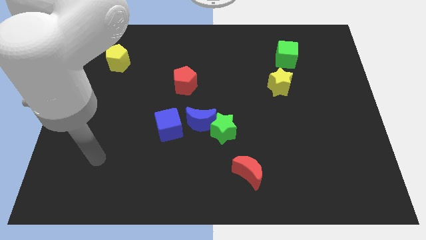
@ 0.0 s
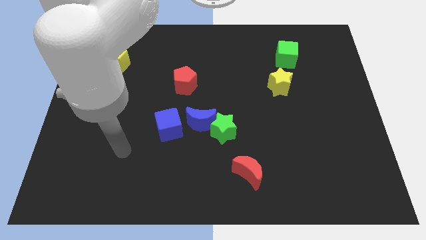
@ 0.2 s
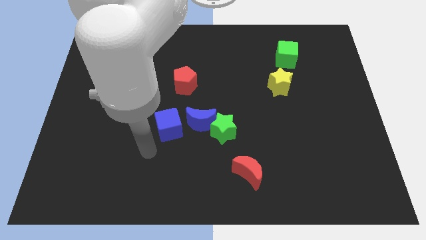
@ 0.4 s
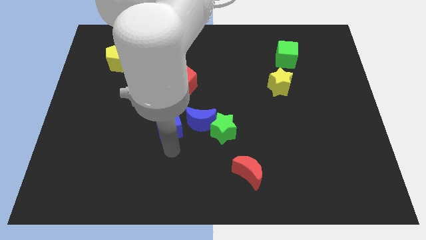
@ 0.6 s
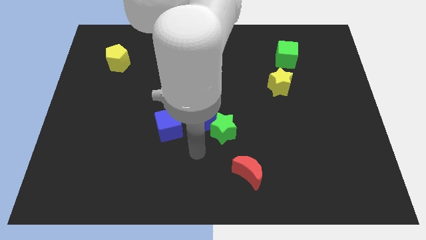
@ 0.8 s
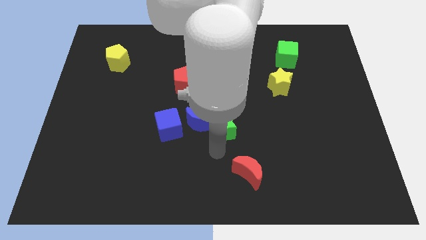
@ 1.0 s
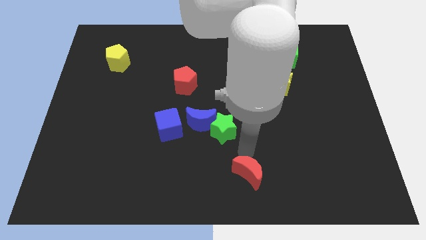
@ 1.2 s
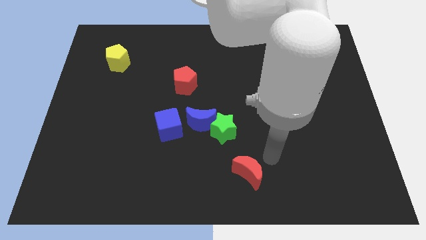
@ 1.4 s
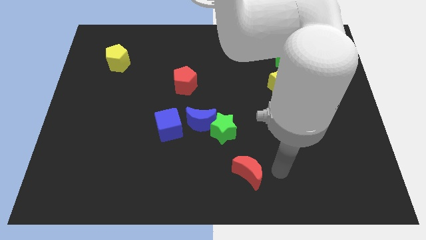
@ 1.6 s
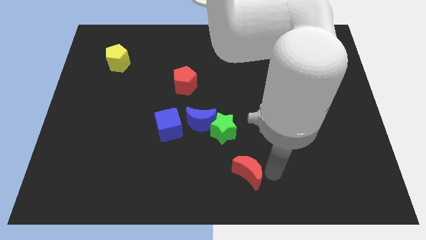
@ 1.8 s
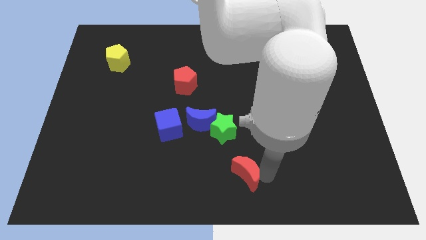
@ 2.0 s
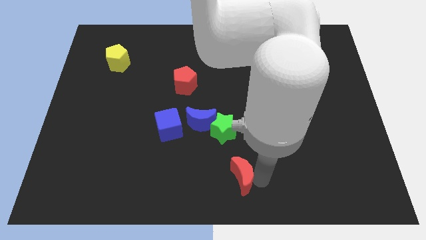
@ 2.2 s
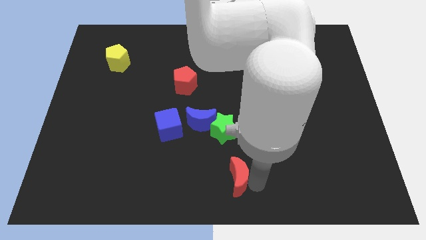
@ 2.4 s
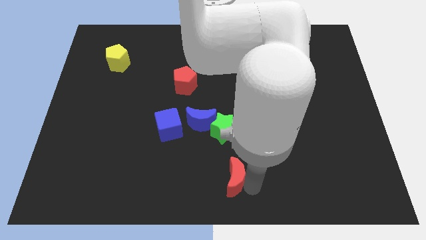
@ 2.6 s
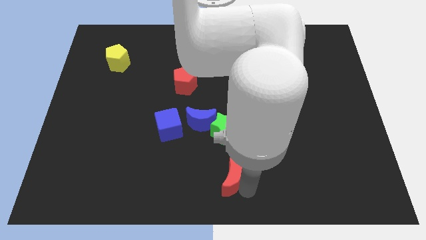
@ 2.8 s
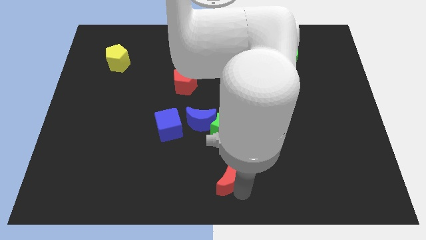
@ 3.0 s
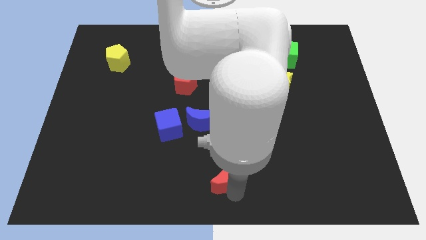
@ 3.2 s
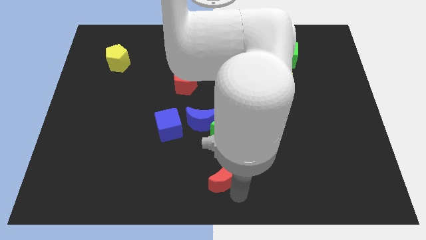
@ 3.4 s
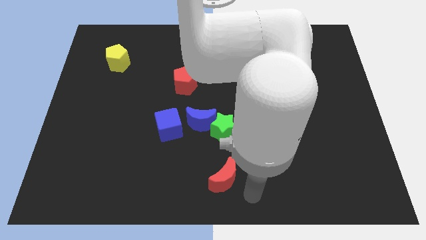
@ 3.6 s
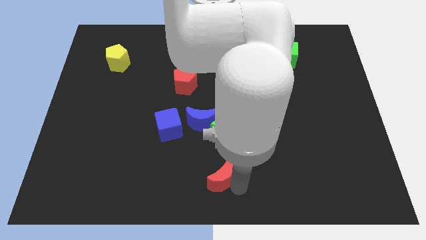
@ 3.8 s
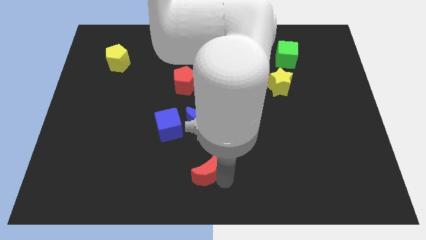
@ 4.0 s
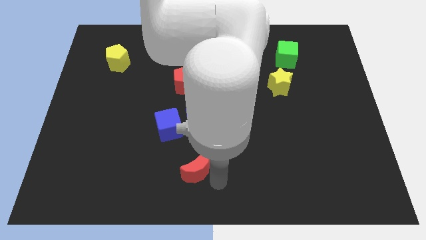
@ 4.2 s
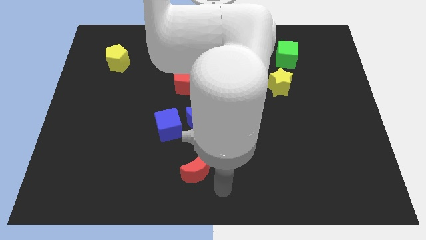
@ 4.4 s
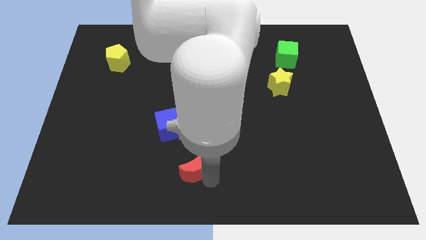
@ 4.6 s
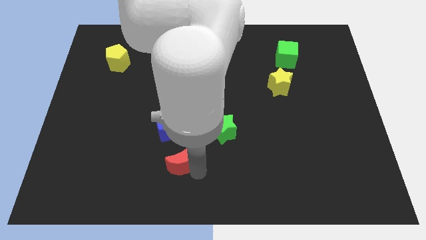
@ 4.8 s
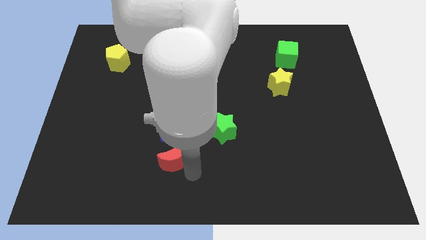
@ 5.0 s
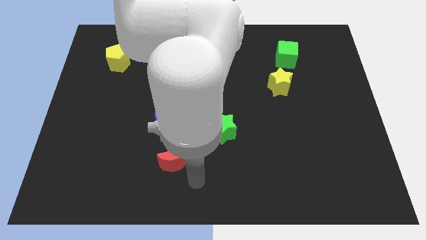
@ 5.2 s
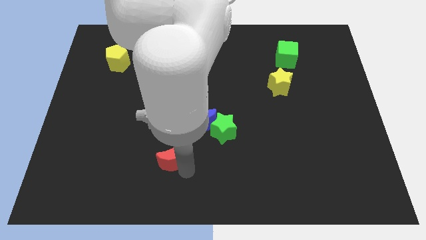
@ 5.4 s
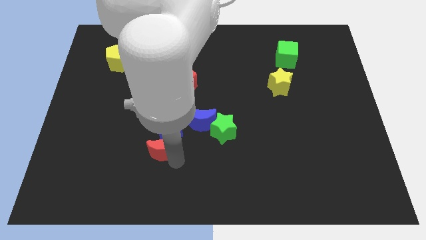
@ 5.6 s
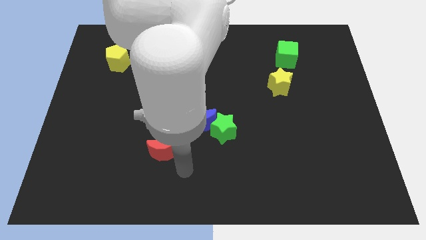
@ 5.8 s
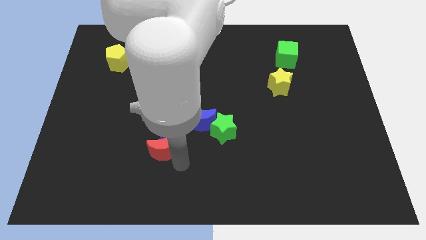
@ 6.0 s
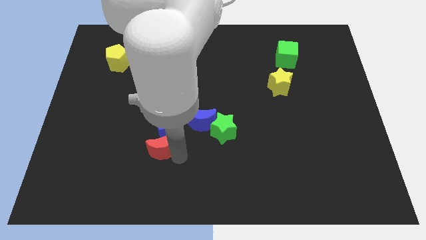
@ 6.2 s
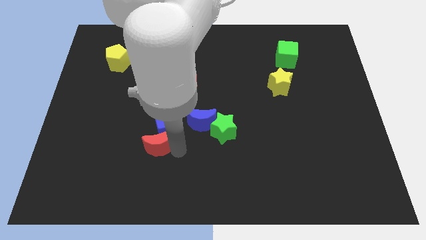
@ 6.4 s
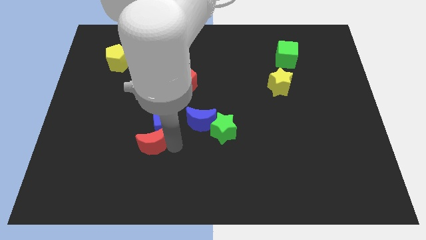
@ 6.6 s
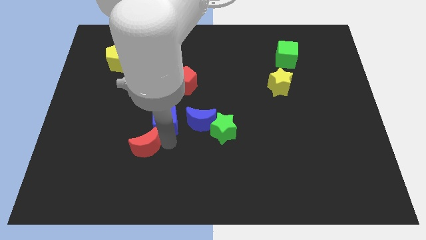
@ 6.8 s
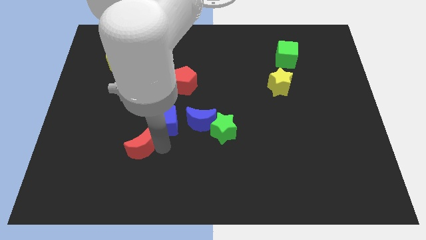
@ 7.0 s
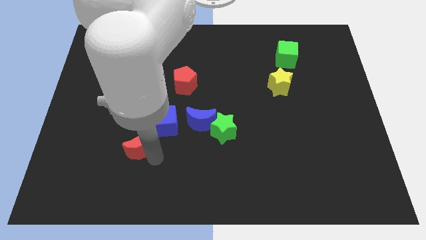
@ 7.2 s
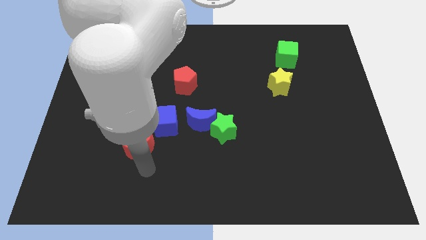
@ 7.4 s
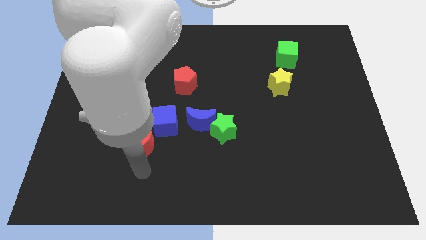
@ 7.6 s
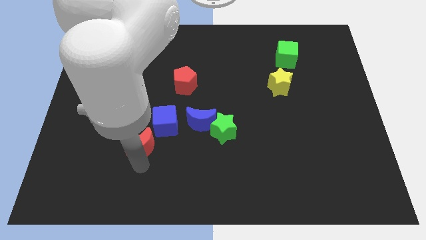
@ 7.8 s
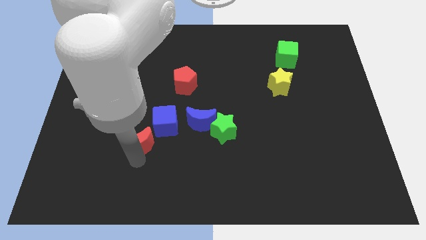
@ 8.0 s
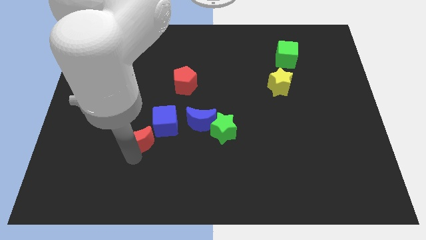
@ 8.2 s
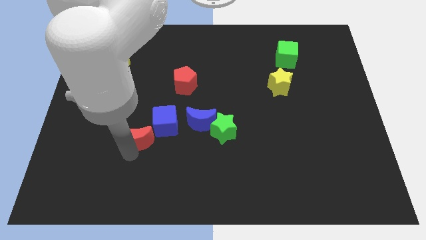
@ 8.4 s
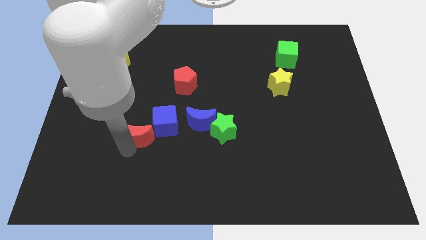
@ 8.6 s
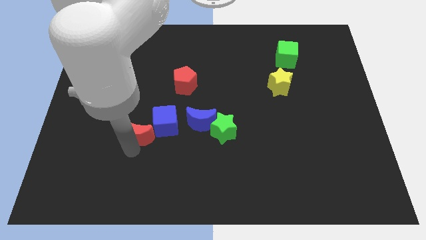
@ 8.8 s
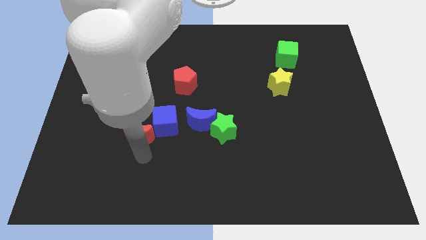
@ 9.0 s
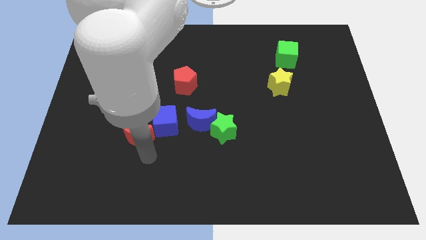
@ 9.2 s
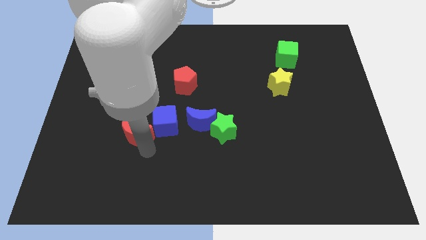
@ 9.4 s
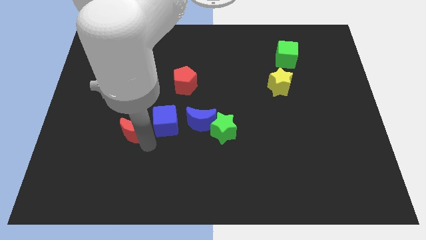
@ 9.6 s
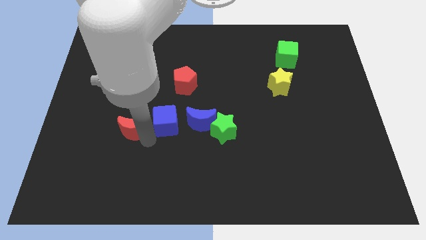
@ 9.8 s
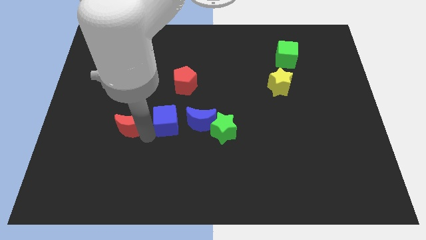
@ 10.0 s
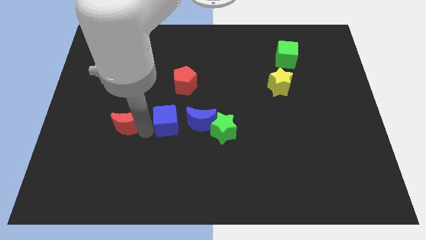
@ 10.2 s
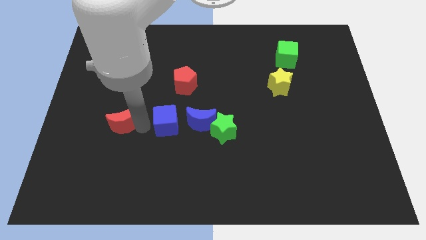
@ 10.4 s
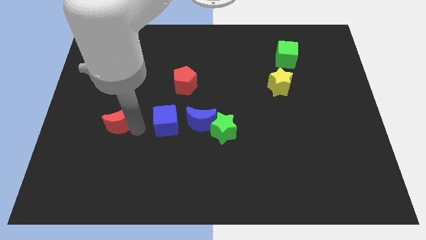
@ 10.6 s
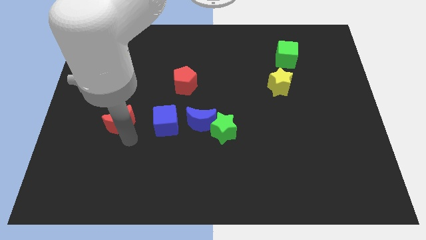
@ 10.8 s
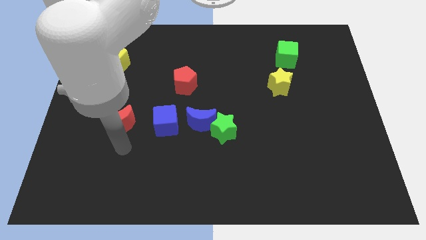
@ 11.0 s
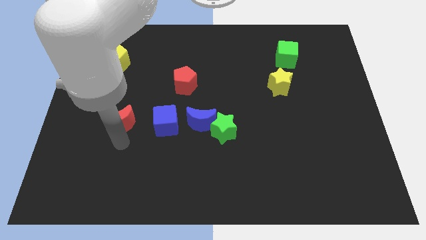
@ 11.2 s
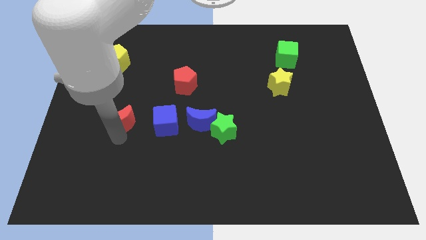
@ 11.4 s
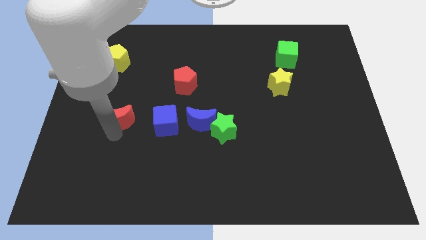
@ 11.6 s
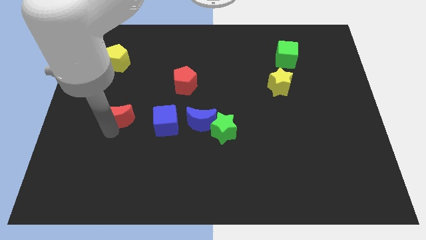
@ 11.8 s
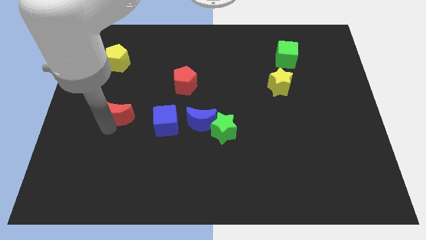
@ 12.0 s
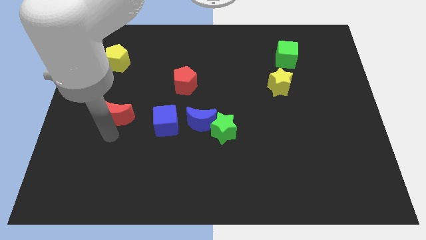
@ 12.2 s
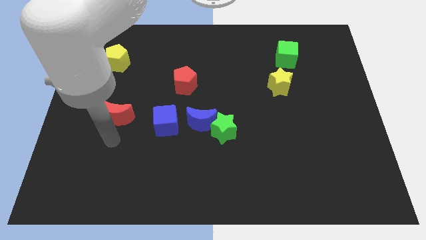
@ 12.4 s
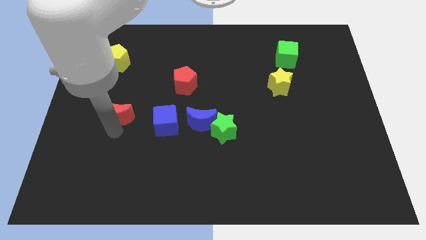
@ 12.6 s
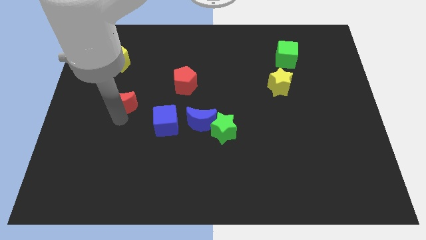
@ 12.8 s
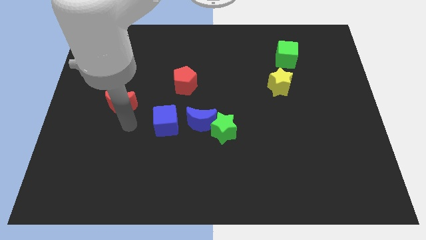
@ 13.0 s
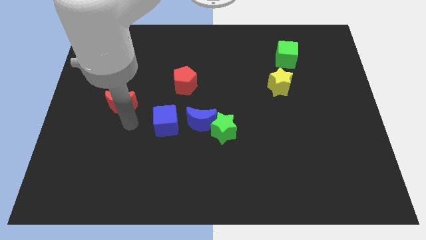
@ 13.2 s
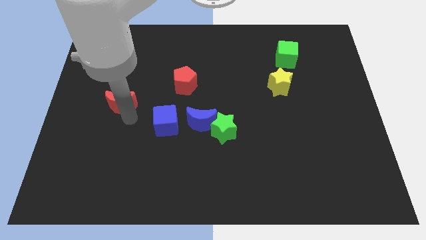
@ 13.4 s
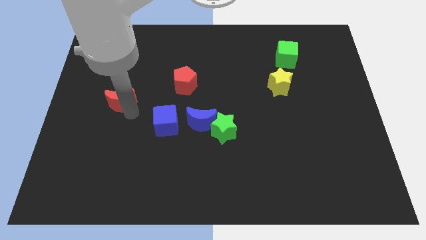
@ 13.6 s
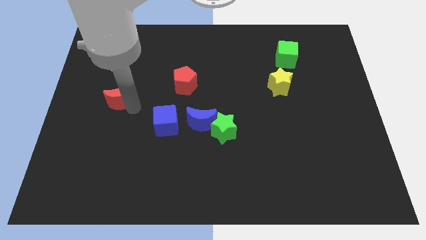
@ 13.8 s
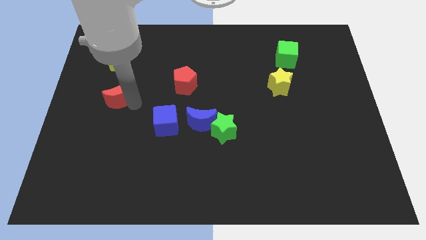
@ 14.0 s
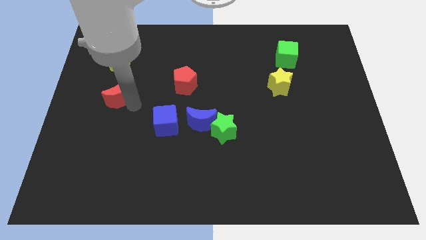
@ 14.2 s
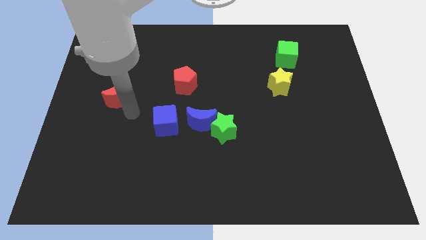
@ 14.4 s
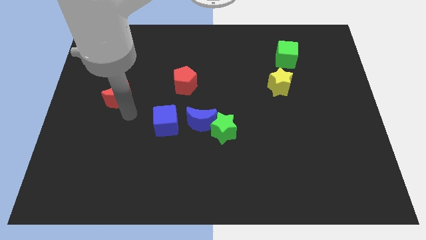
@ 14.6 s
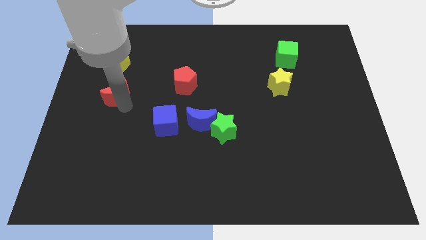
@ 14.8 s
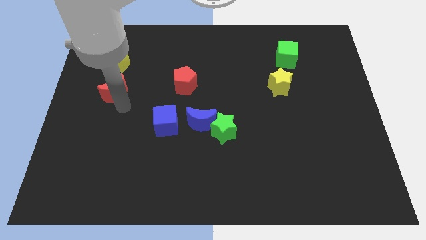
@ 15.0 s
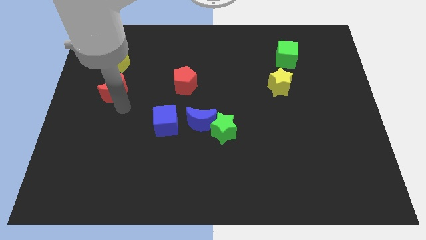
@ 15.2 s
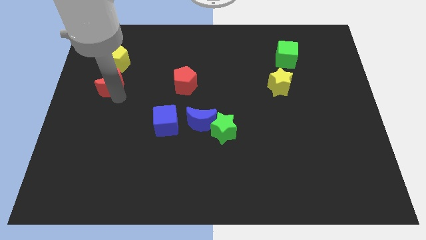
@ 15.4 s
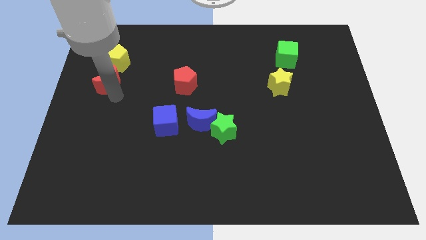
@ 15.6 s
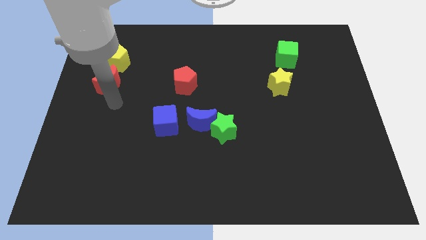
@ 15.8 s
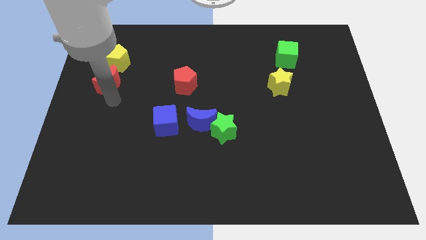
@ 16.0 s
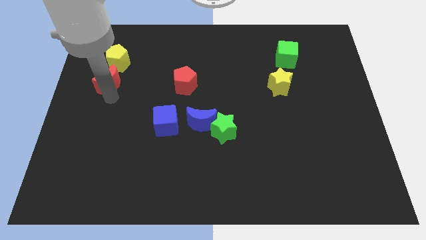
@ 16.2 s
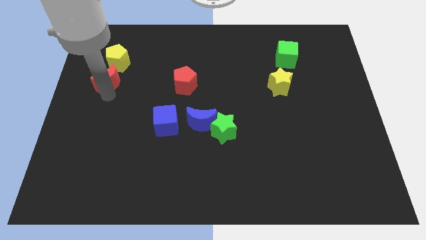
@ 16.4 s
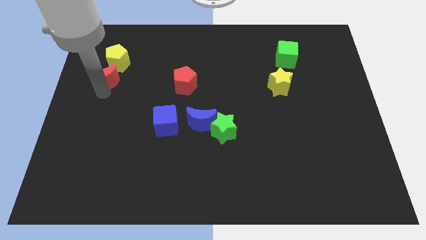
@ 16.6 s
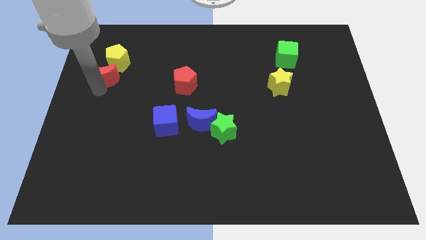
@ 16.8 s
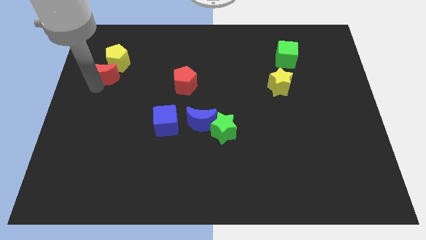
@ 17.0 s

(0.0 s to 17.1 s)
slide the red moon to the yellow pentagon
